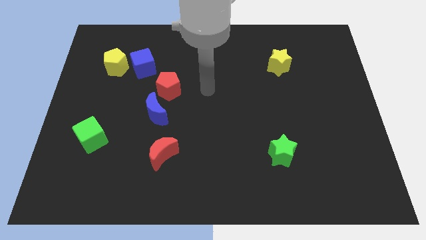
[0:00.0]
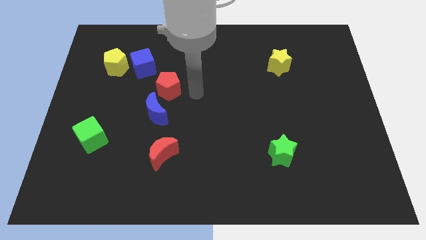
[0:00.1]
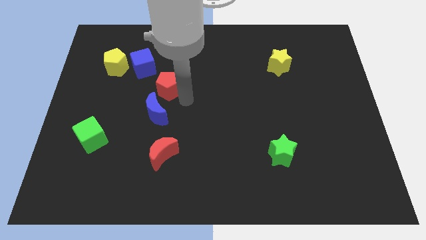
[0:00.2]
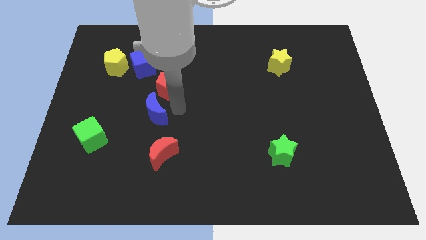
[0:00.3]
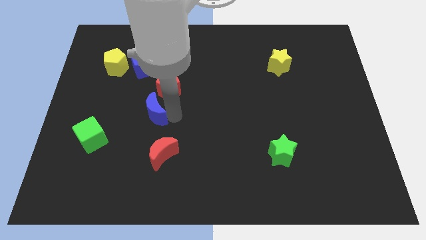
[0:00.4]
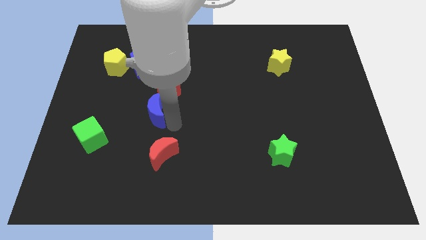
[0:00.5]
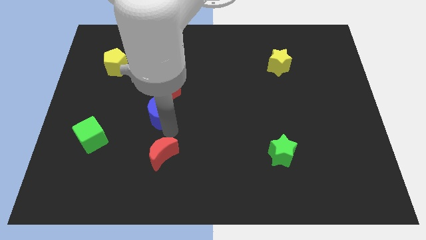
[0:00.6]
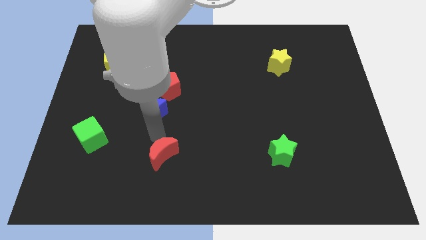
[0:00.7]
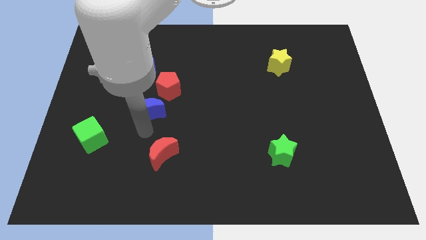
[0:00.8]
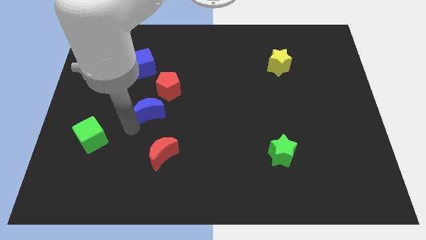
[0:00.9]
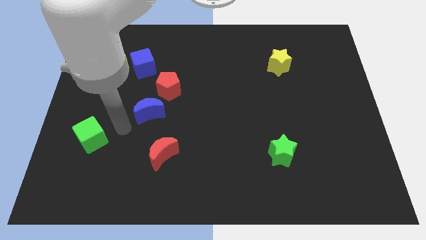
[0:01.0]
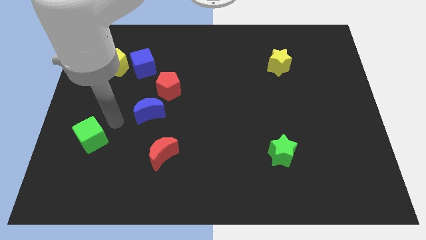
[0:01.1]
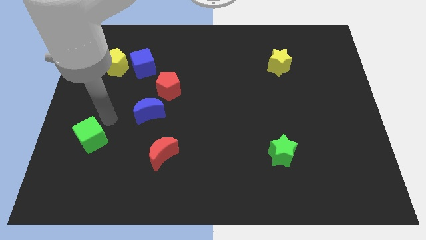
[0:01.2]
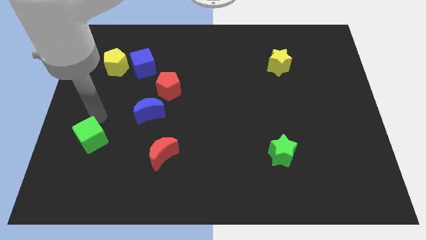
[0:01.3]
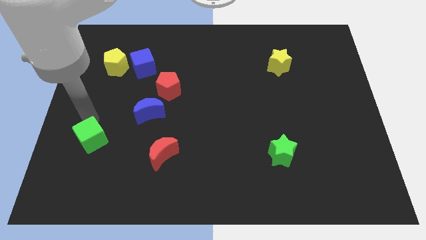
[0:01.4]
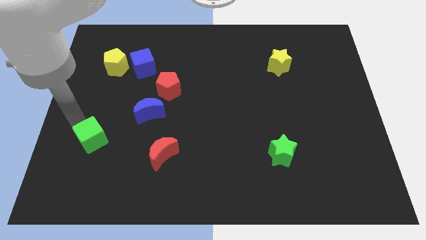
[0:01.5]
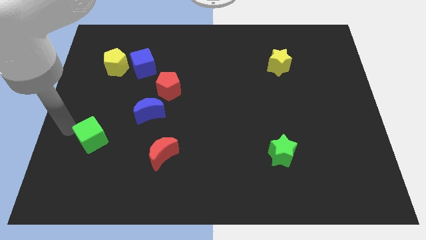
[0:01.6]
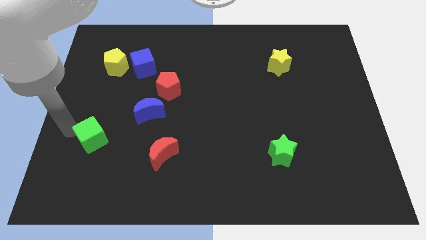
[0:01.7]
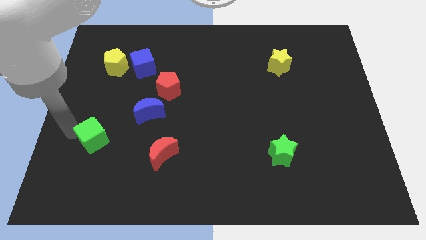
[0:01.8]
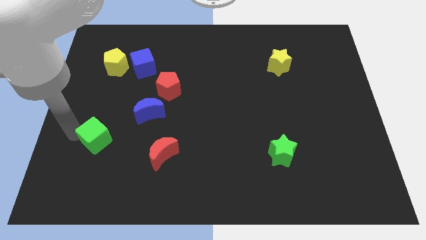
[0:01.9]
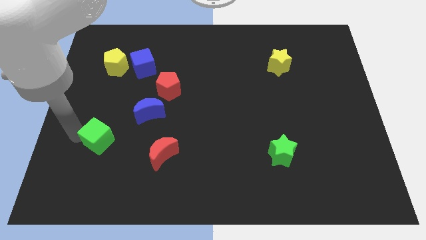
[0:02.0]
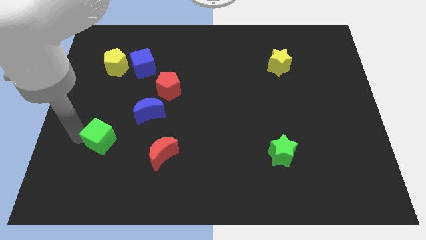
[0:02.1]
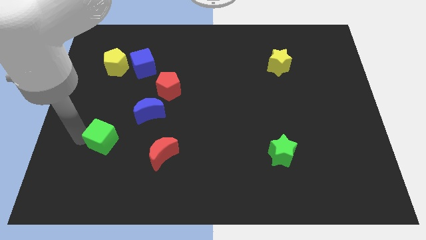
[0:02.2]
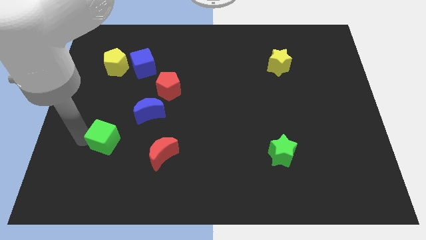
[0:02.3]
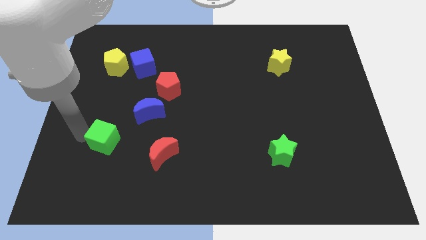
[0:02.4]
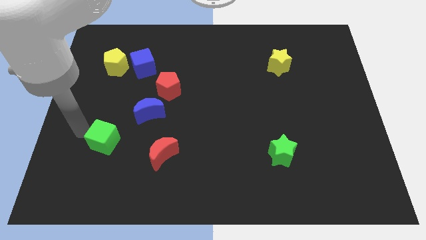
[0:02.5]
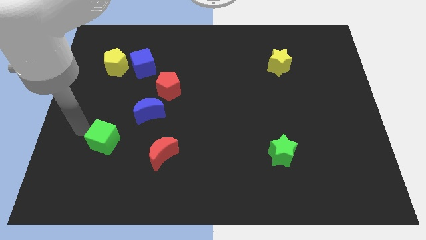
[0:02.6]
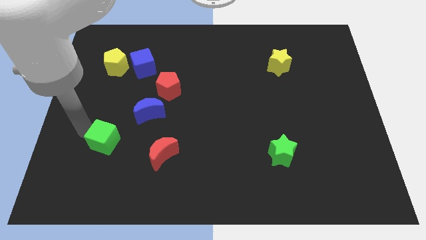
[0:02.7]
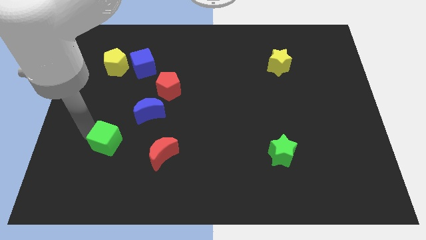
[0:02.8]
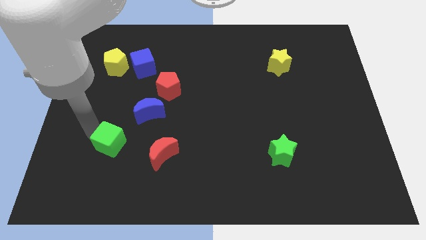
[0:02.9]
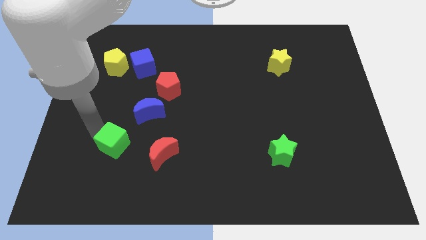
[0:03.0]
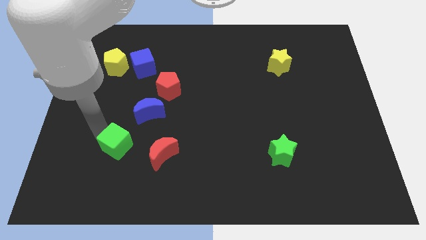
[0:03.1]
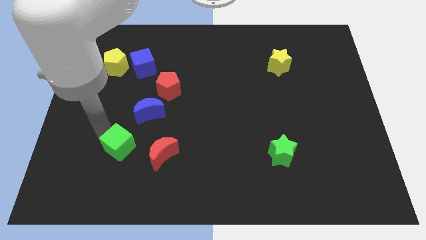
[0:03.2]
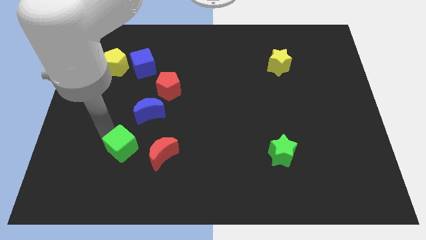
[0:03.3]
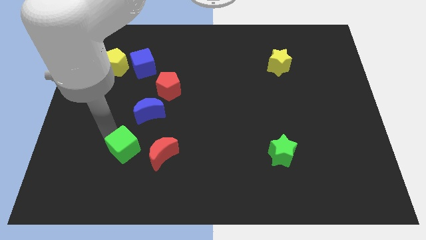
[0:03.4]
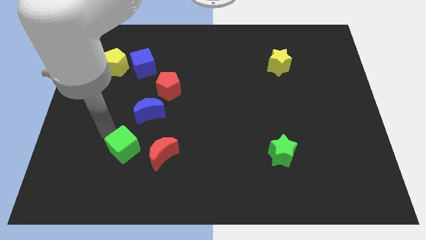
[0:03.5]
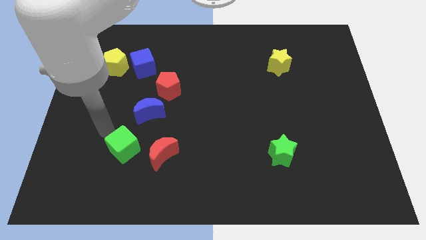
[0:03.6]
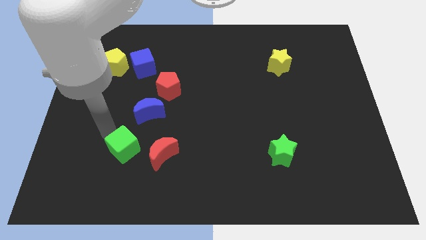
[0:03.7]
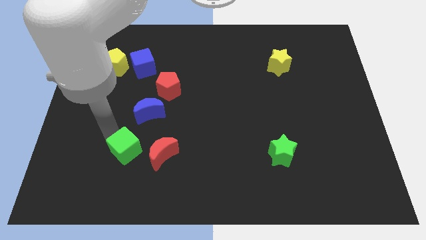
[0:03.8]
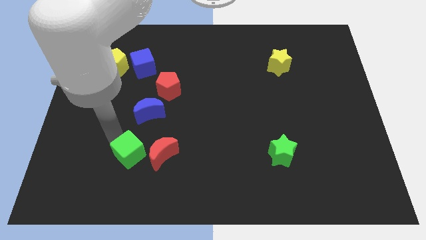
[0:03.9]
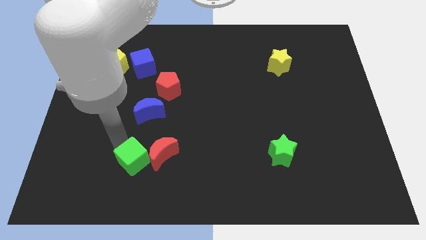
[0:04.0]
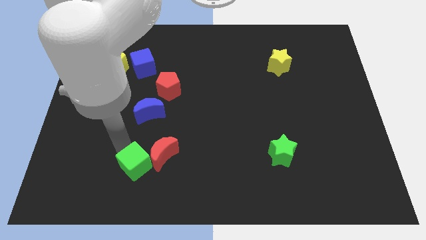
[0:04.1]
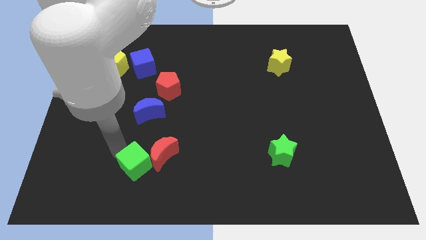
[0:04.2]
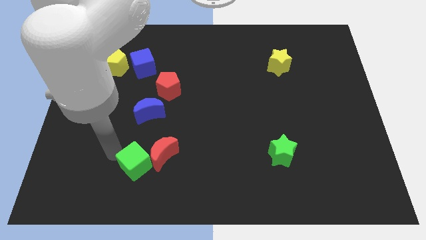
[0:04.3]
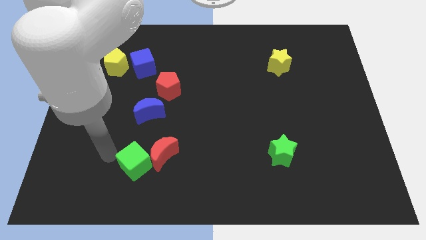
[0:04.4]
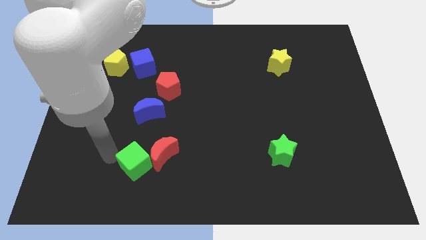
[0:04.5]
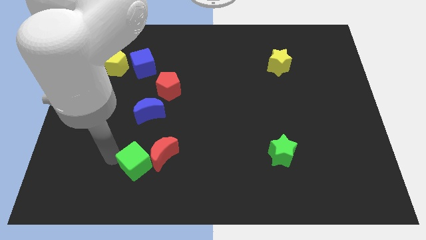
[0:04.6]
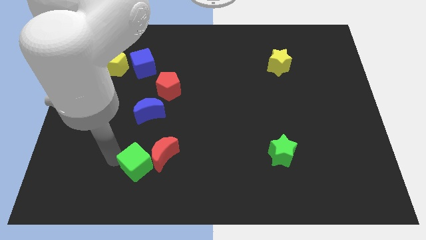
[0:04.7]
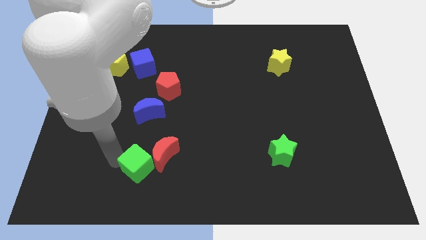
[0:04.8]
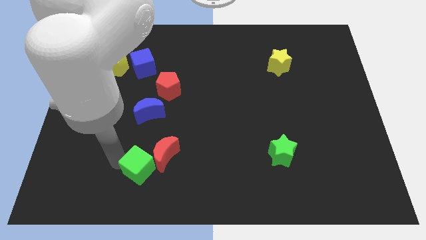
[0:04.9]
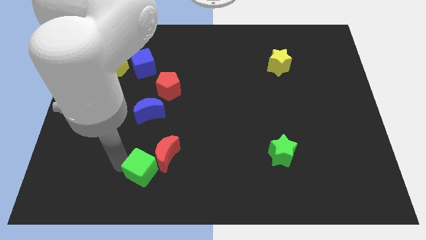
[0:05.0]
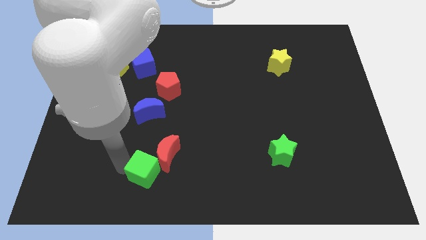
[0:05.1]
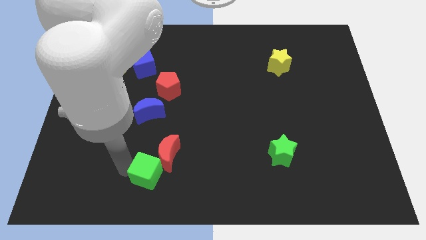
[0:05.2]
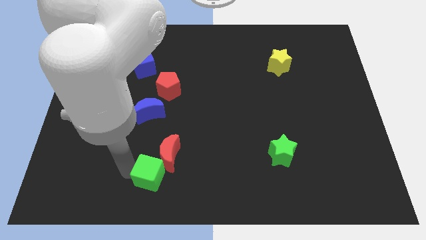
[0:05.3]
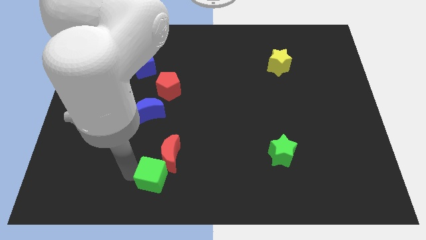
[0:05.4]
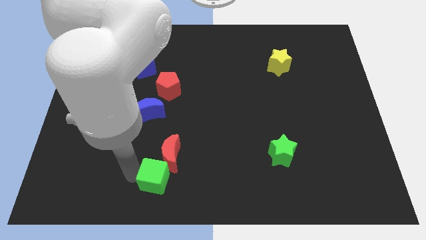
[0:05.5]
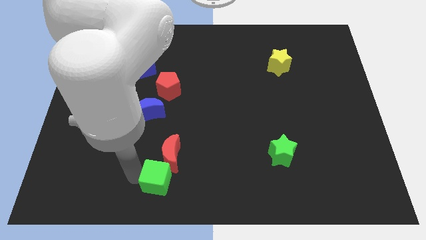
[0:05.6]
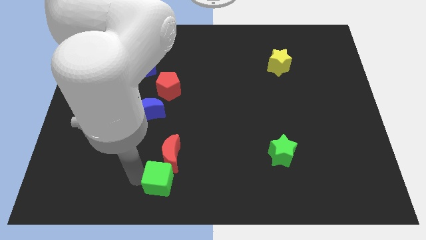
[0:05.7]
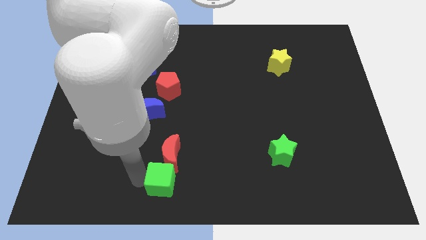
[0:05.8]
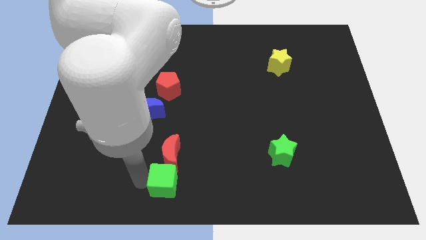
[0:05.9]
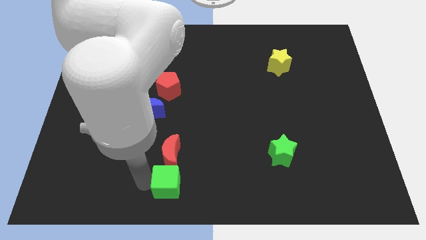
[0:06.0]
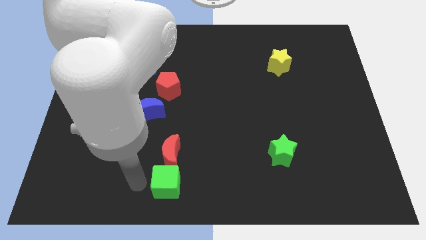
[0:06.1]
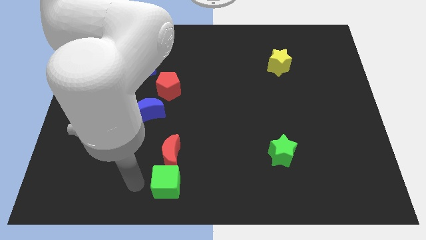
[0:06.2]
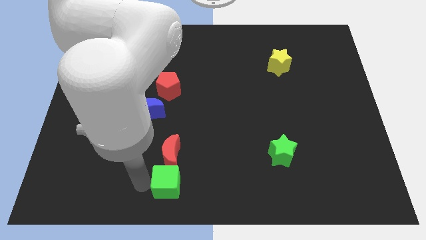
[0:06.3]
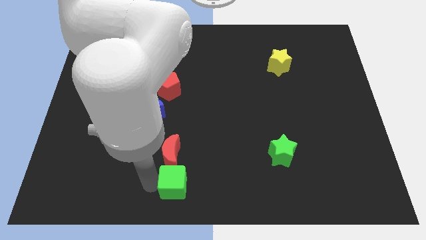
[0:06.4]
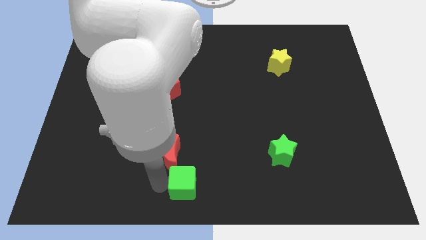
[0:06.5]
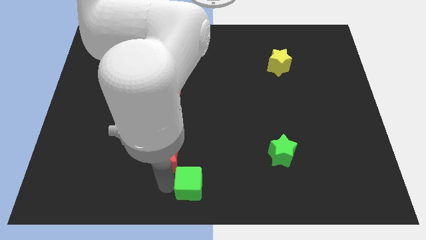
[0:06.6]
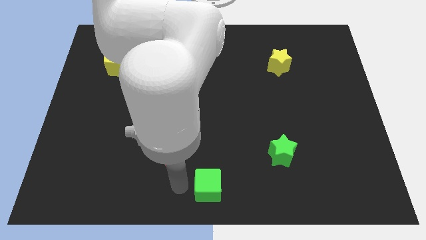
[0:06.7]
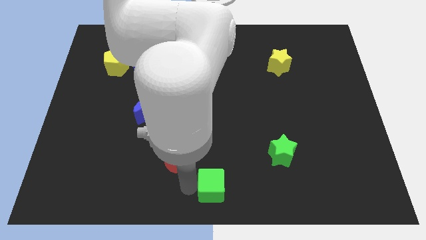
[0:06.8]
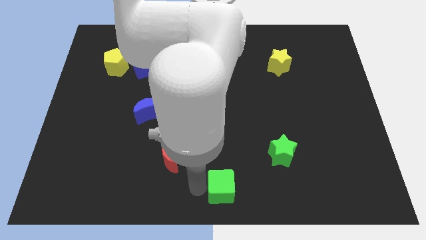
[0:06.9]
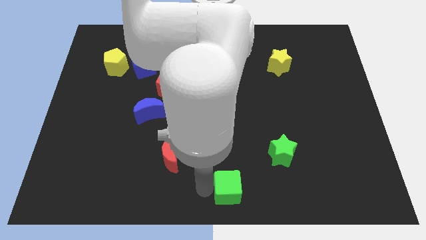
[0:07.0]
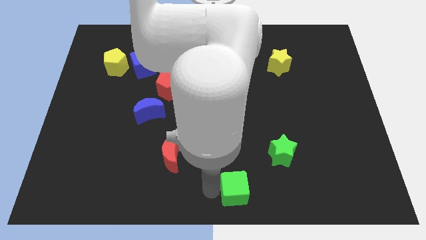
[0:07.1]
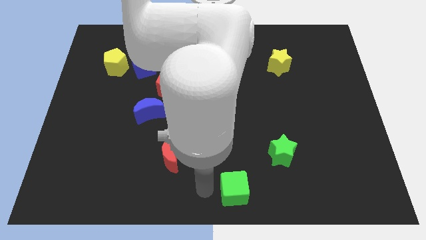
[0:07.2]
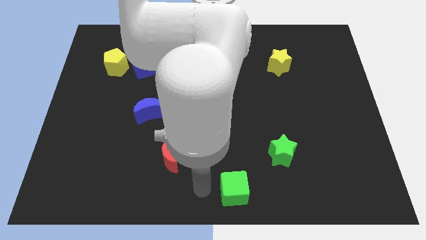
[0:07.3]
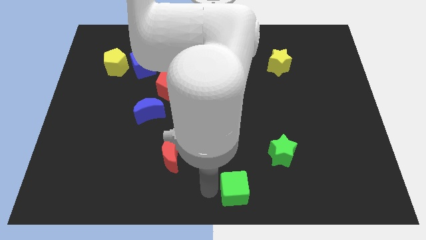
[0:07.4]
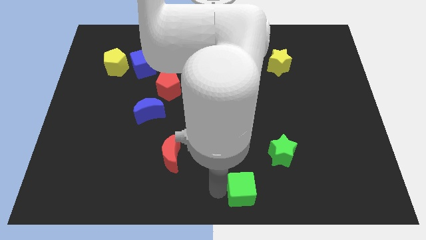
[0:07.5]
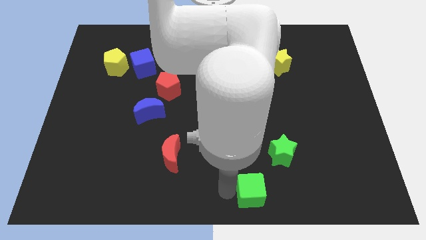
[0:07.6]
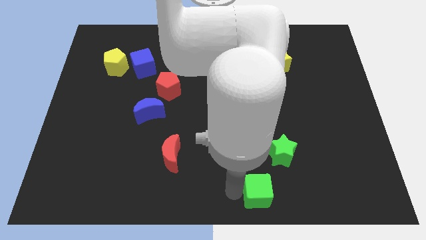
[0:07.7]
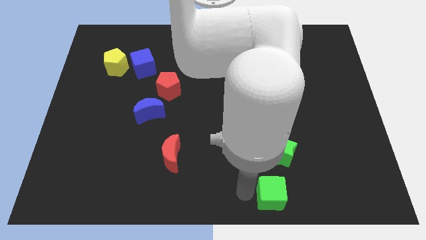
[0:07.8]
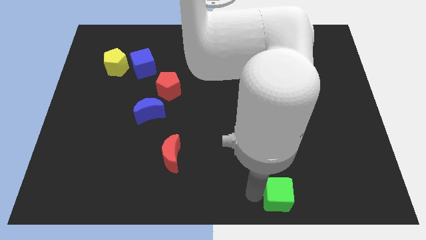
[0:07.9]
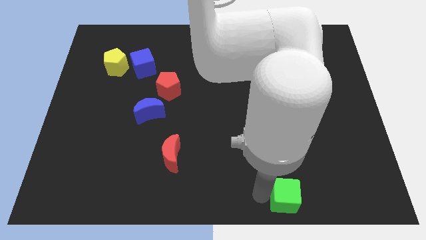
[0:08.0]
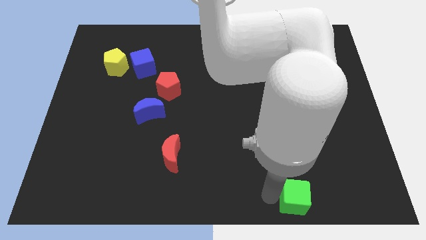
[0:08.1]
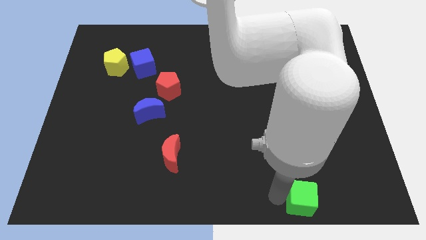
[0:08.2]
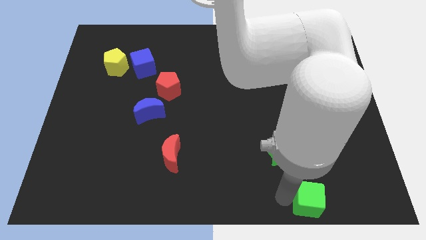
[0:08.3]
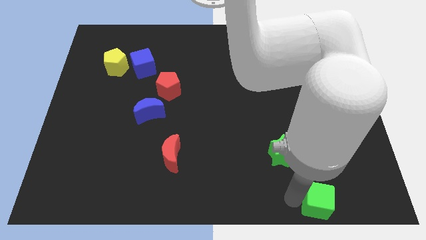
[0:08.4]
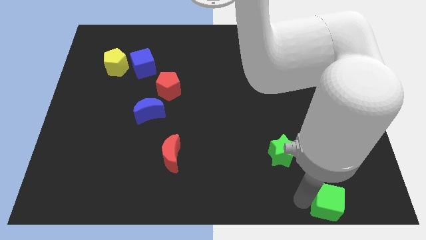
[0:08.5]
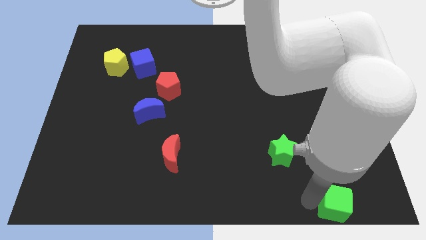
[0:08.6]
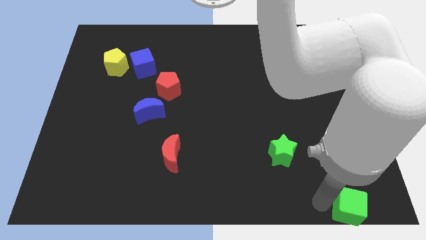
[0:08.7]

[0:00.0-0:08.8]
put the green cube to the bottom right corner
